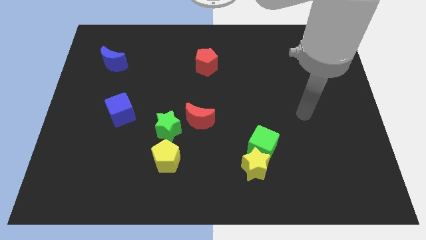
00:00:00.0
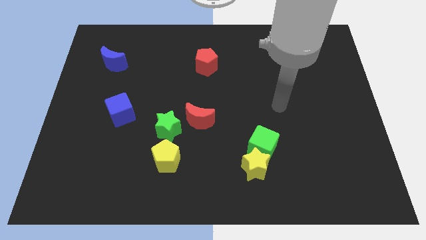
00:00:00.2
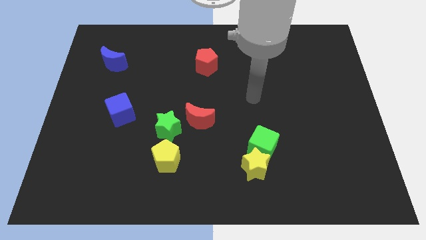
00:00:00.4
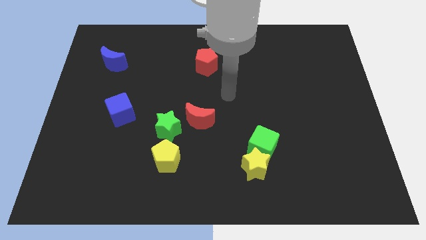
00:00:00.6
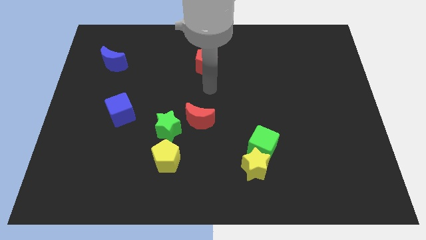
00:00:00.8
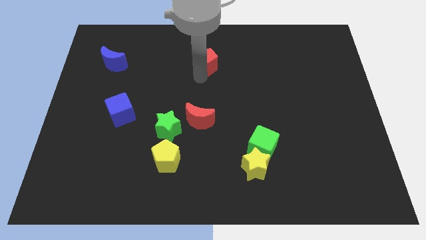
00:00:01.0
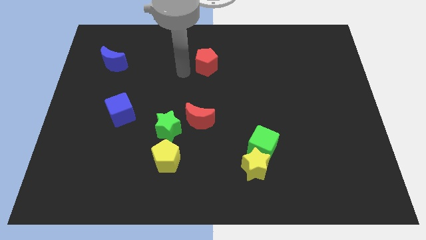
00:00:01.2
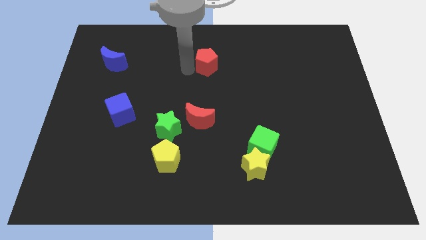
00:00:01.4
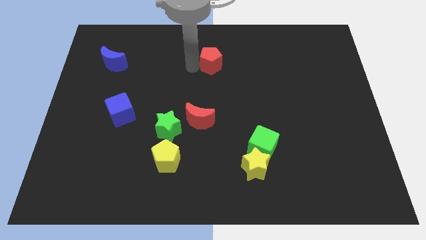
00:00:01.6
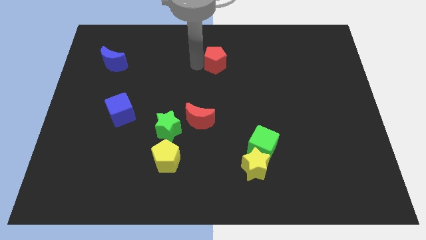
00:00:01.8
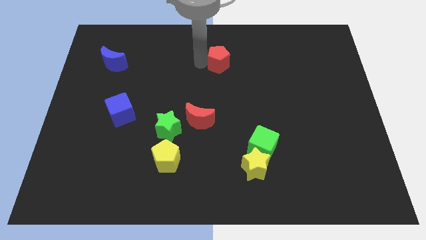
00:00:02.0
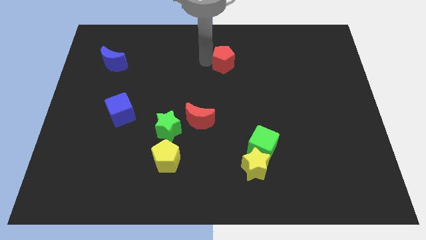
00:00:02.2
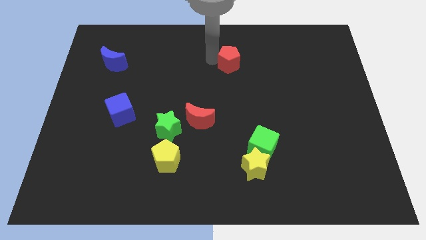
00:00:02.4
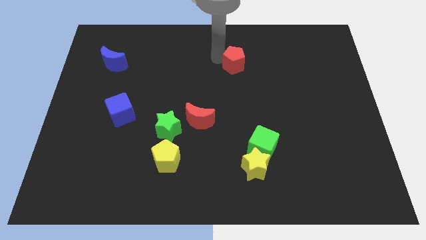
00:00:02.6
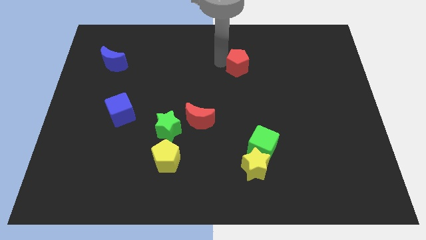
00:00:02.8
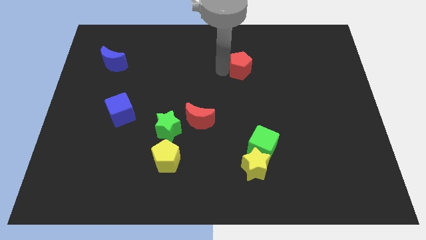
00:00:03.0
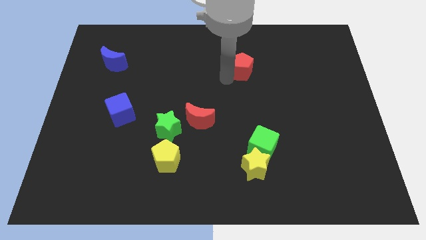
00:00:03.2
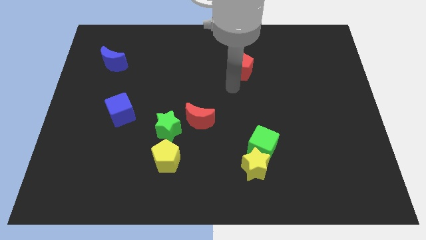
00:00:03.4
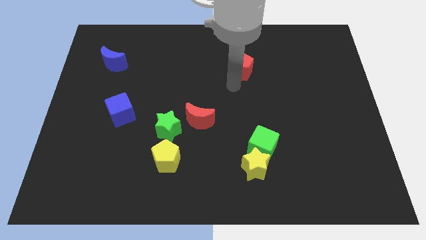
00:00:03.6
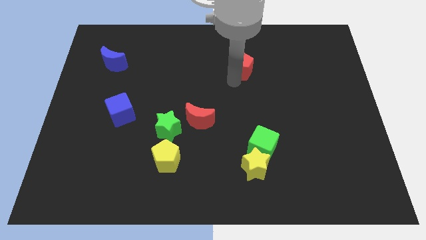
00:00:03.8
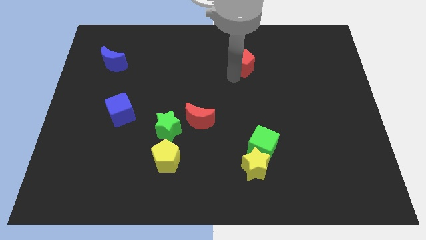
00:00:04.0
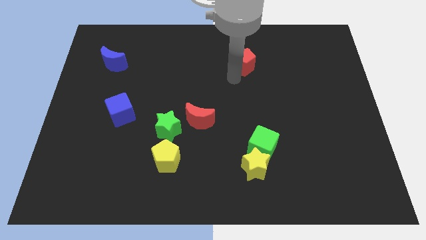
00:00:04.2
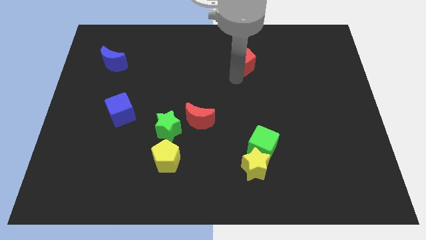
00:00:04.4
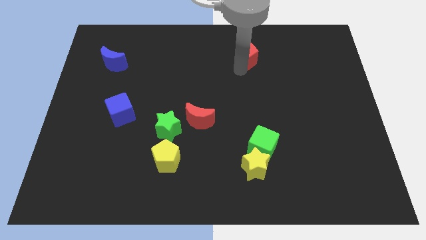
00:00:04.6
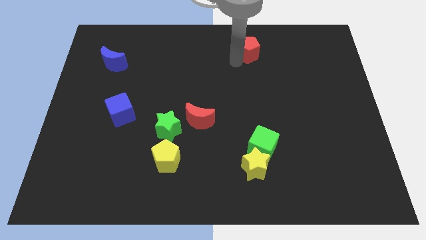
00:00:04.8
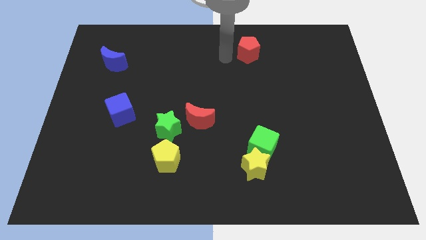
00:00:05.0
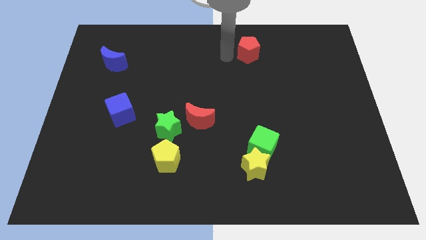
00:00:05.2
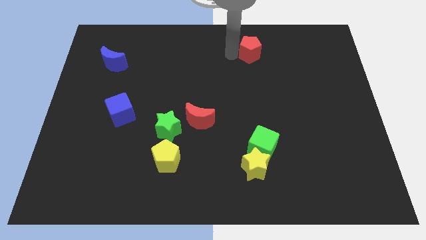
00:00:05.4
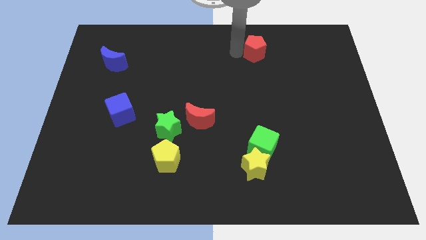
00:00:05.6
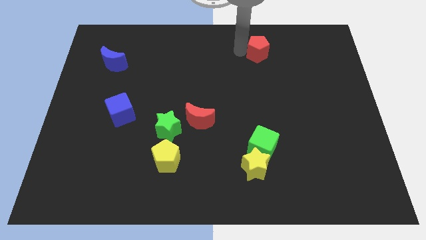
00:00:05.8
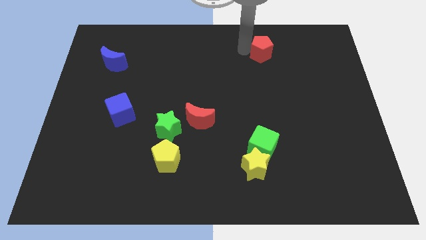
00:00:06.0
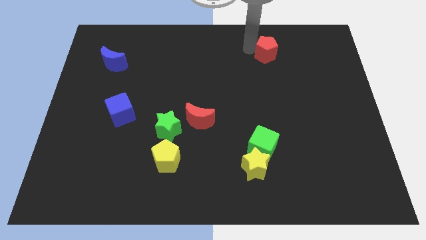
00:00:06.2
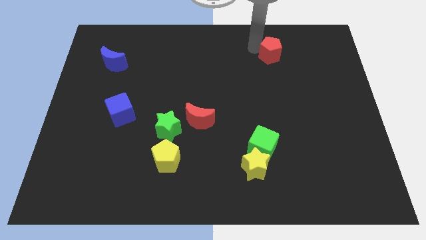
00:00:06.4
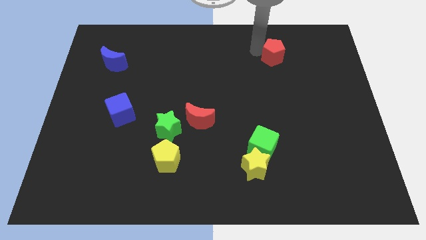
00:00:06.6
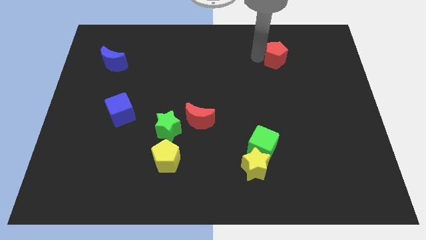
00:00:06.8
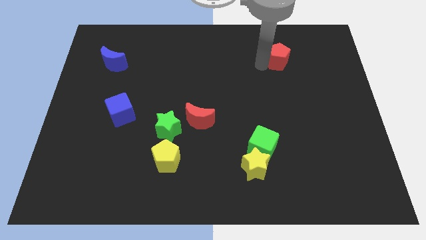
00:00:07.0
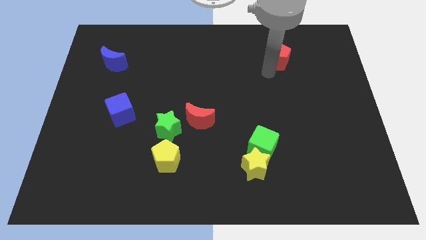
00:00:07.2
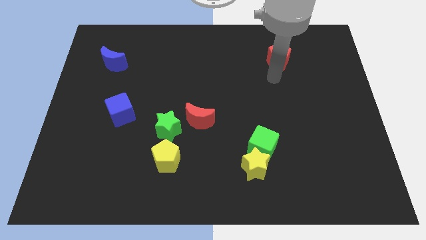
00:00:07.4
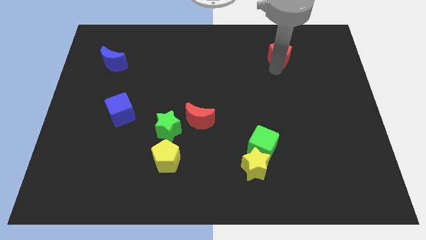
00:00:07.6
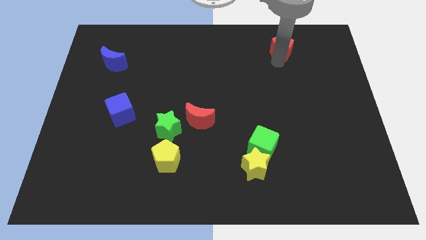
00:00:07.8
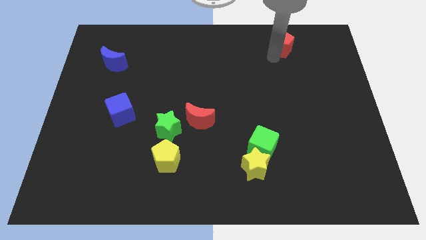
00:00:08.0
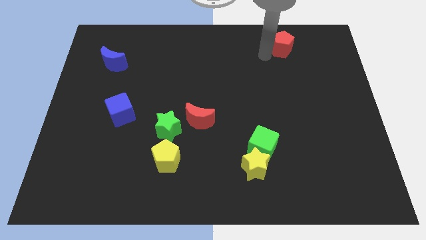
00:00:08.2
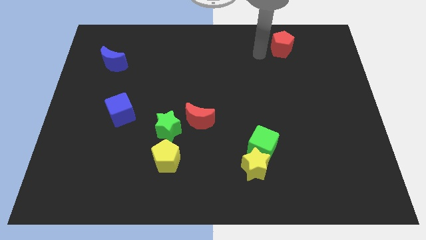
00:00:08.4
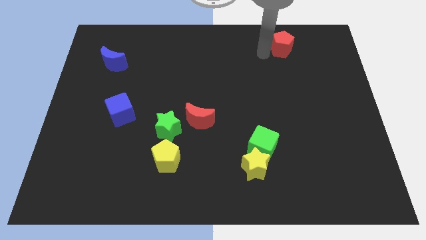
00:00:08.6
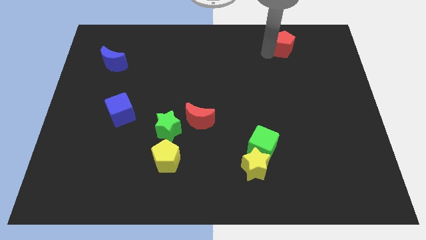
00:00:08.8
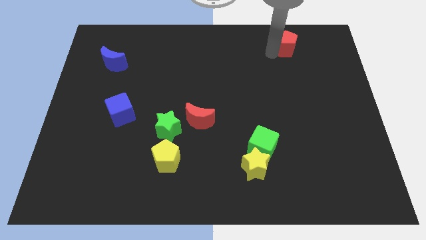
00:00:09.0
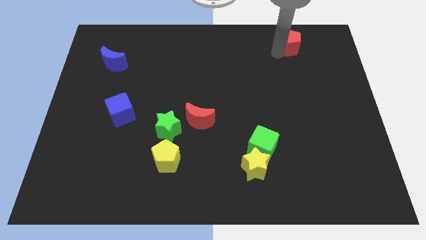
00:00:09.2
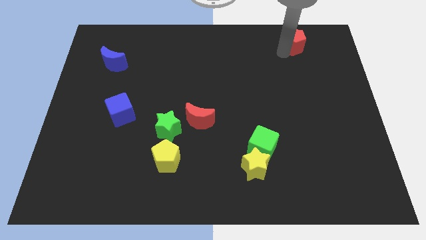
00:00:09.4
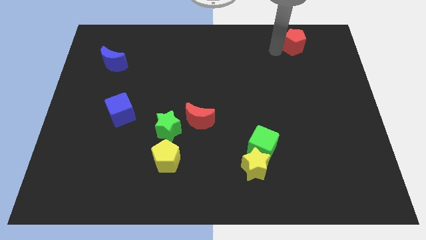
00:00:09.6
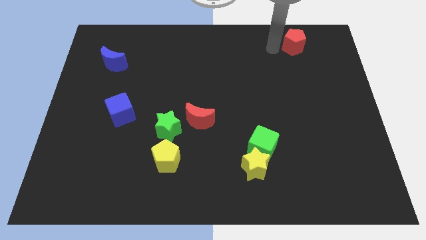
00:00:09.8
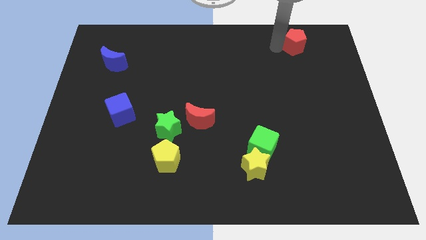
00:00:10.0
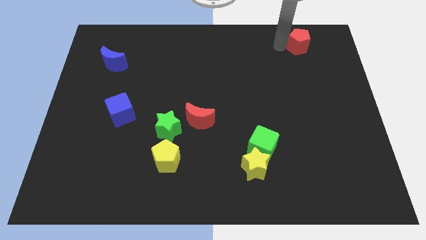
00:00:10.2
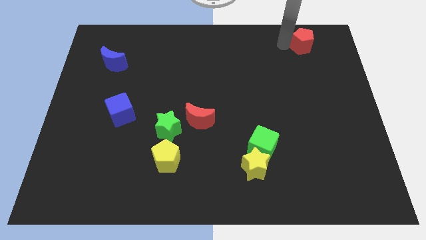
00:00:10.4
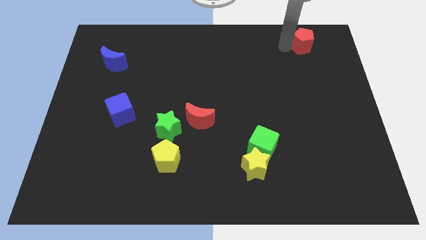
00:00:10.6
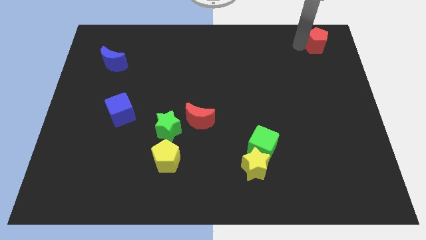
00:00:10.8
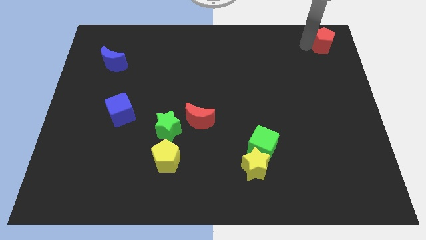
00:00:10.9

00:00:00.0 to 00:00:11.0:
move the red pentagon to the top right of the board

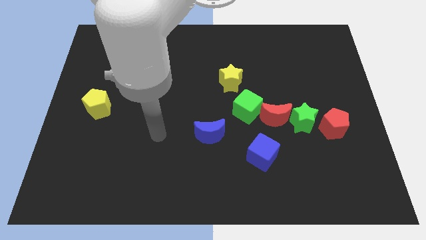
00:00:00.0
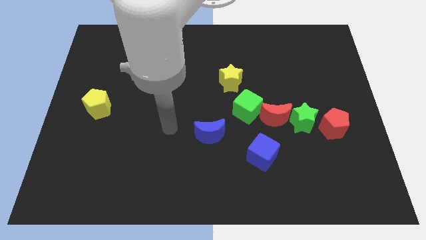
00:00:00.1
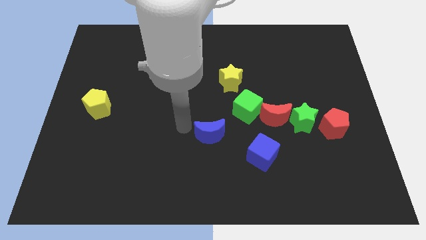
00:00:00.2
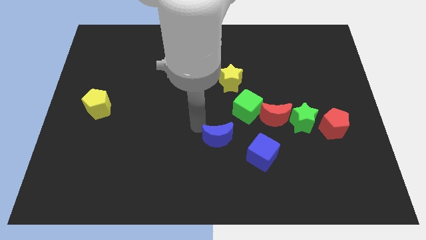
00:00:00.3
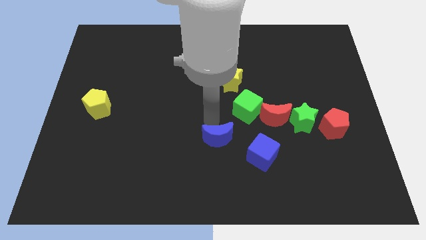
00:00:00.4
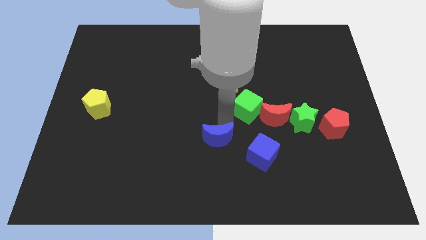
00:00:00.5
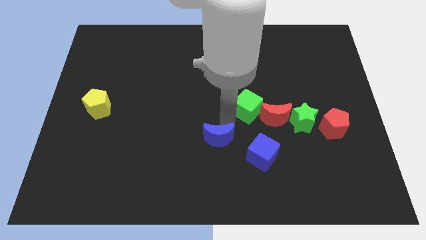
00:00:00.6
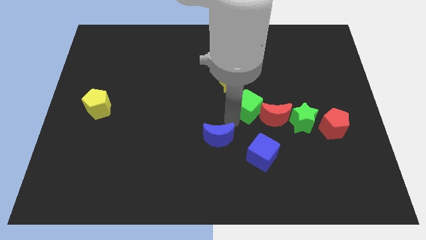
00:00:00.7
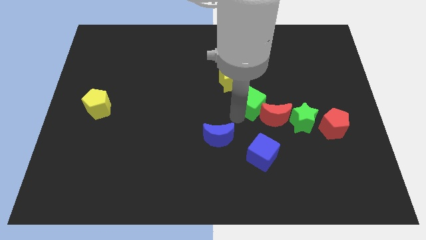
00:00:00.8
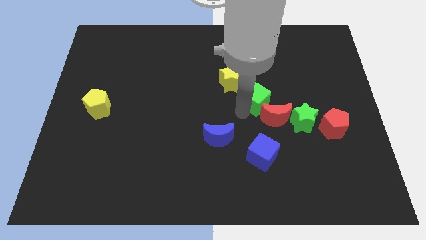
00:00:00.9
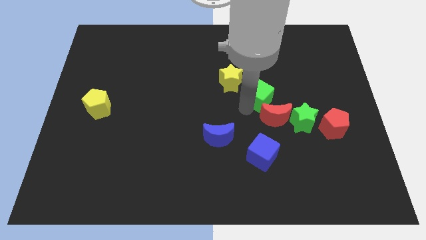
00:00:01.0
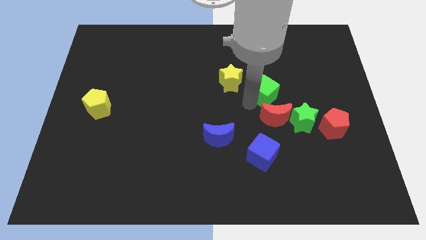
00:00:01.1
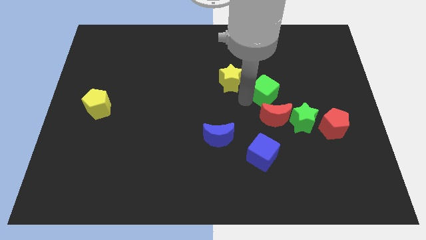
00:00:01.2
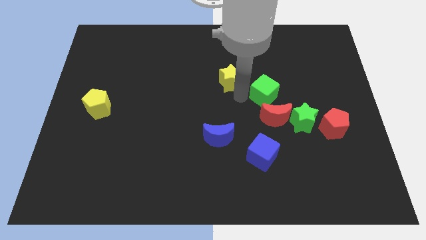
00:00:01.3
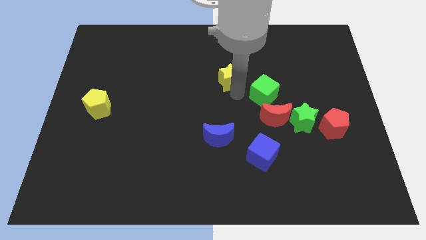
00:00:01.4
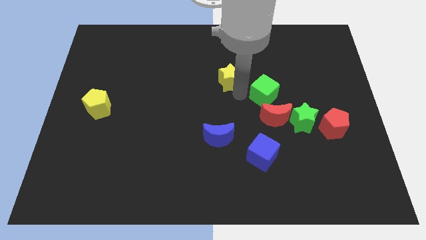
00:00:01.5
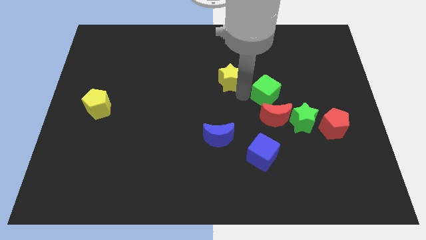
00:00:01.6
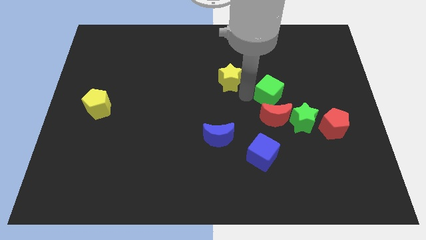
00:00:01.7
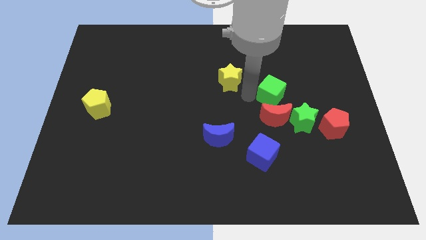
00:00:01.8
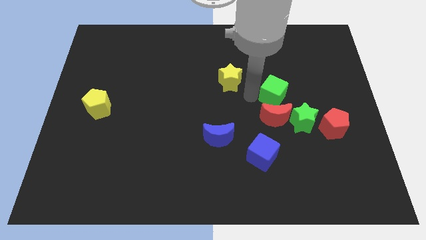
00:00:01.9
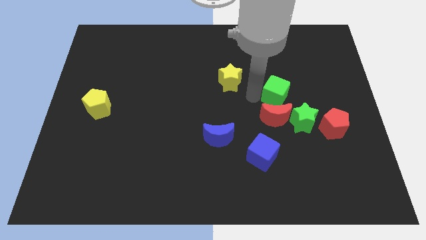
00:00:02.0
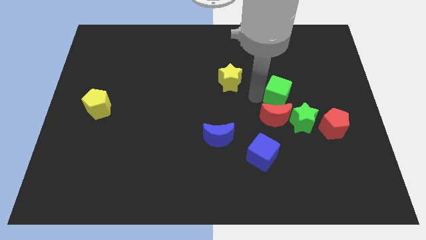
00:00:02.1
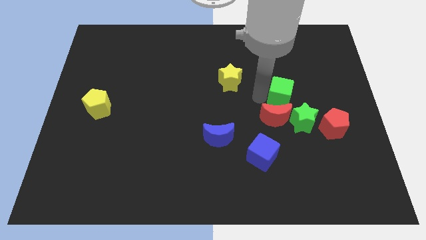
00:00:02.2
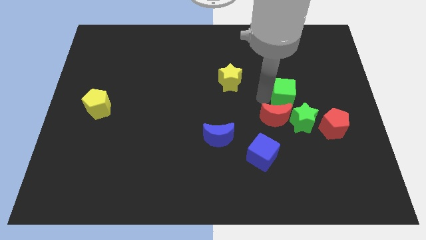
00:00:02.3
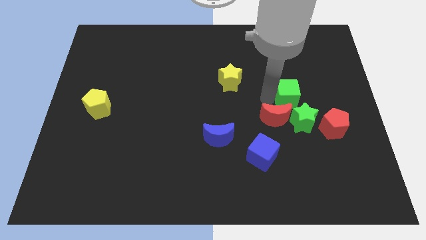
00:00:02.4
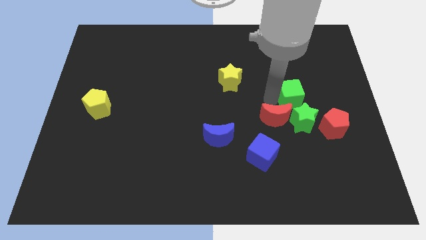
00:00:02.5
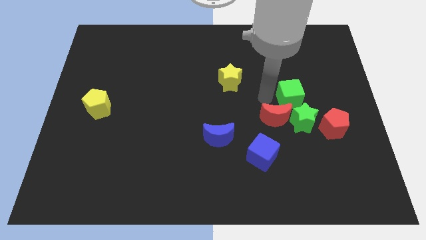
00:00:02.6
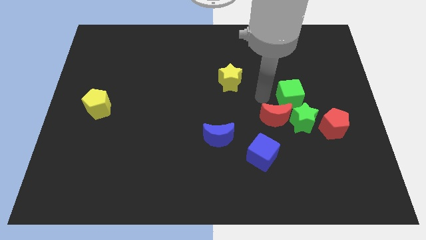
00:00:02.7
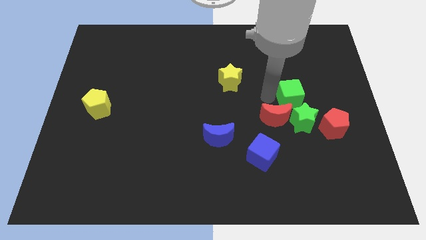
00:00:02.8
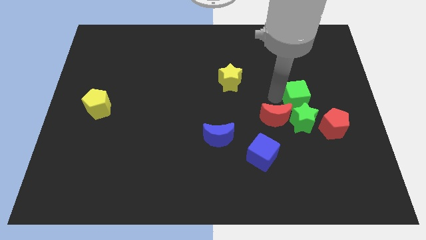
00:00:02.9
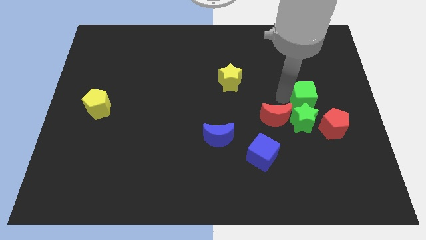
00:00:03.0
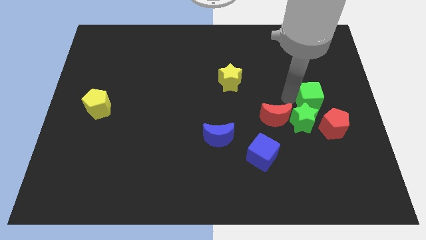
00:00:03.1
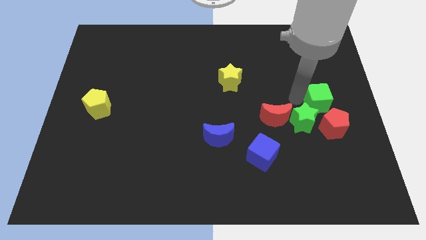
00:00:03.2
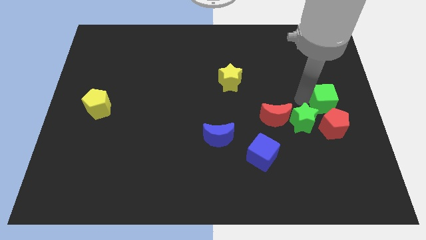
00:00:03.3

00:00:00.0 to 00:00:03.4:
slide the green cube to the center right
